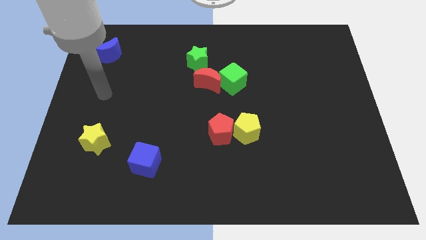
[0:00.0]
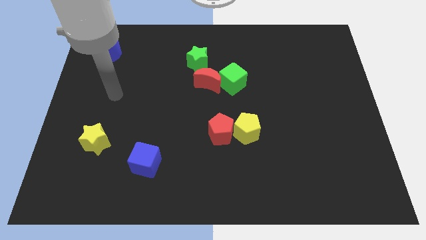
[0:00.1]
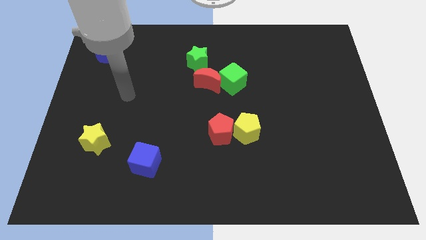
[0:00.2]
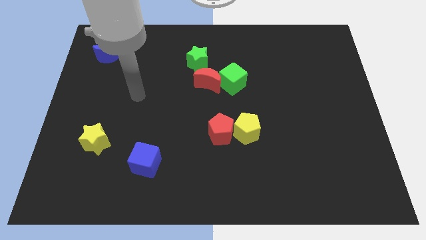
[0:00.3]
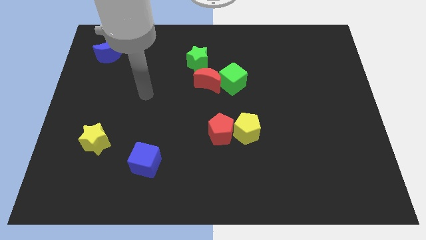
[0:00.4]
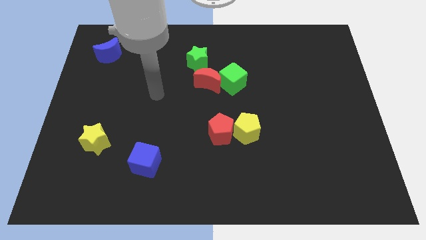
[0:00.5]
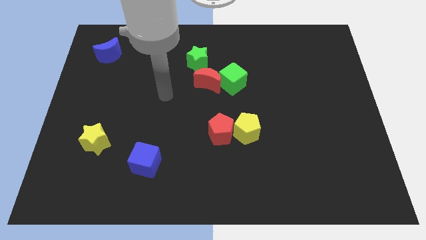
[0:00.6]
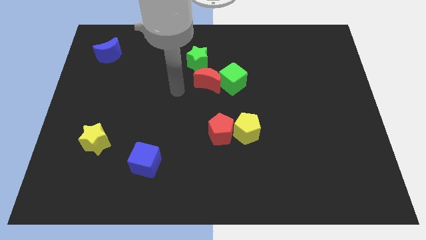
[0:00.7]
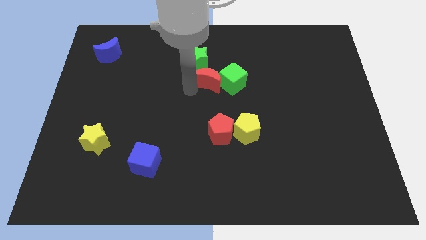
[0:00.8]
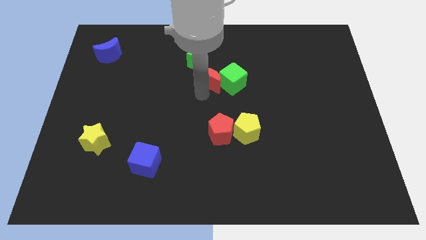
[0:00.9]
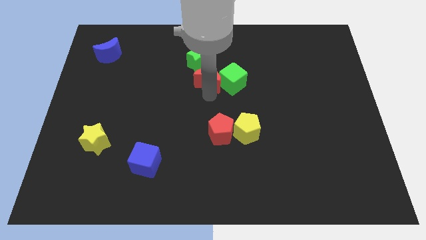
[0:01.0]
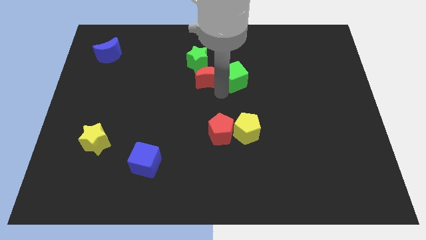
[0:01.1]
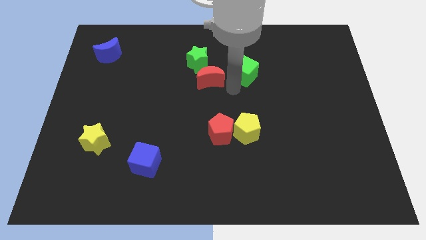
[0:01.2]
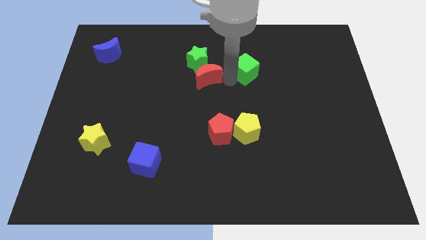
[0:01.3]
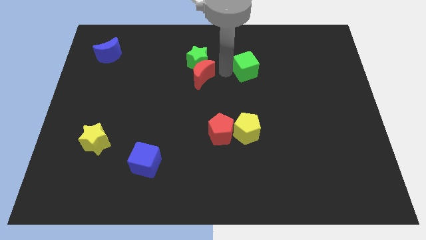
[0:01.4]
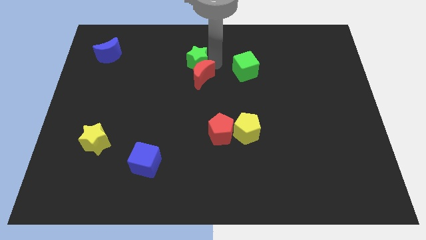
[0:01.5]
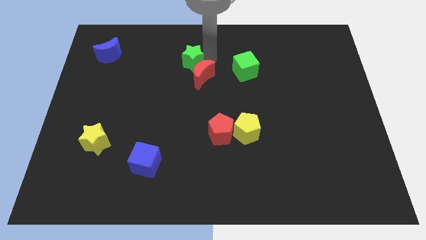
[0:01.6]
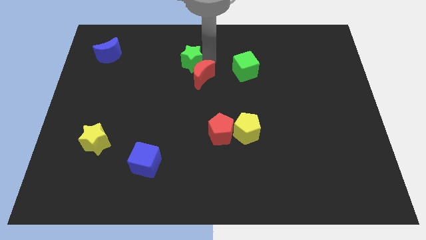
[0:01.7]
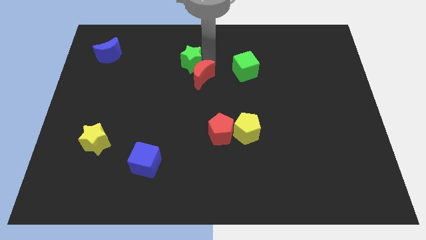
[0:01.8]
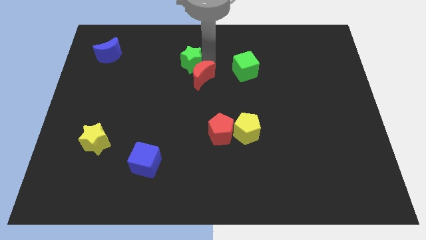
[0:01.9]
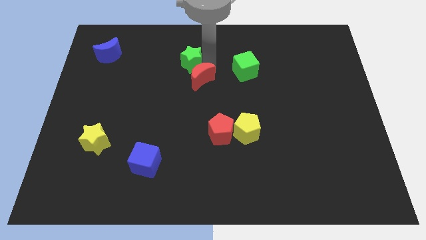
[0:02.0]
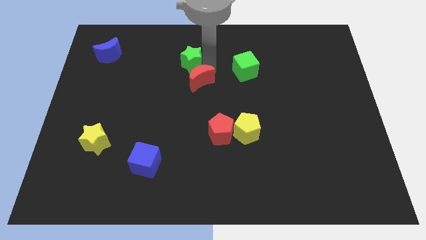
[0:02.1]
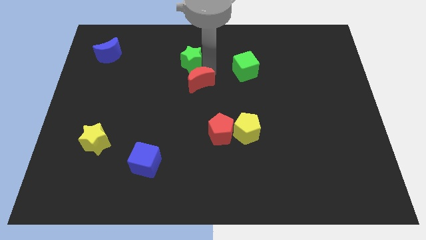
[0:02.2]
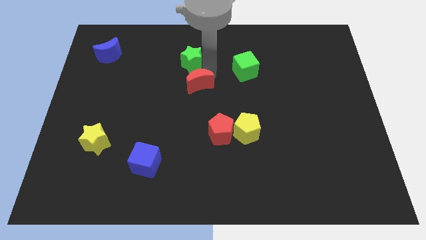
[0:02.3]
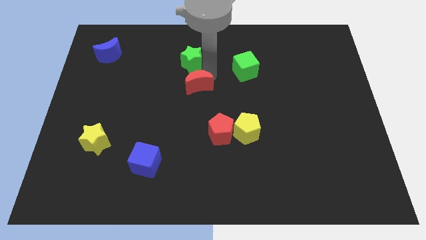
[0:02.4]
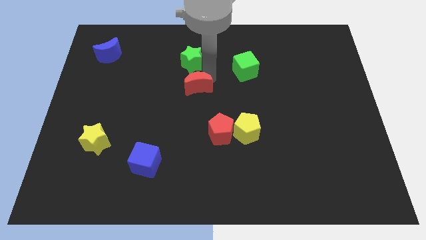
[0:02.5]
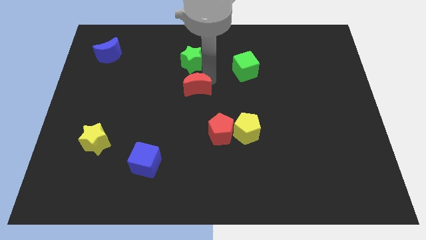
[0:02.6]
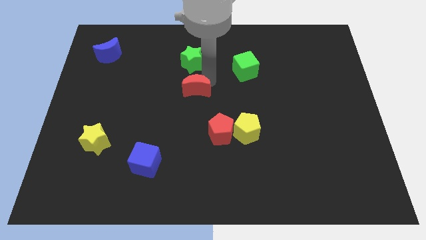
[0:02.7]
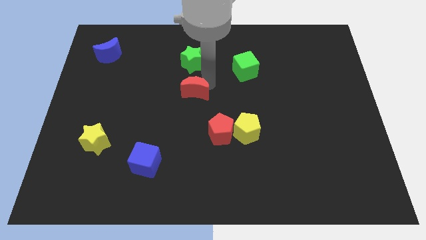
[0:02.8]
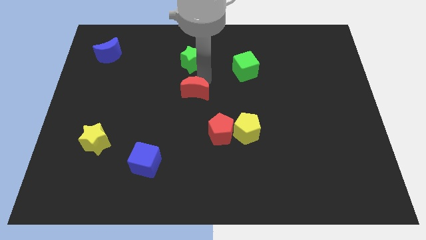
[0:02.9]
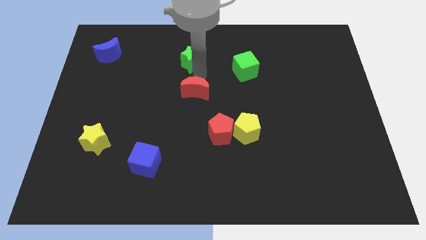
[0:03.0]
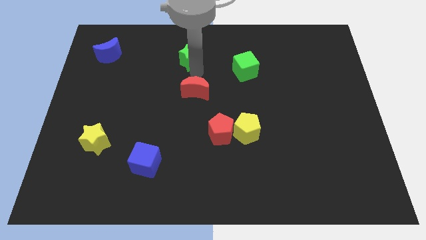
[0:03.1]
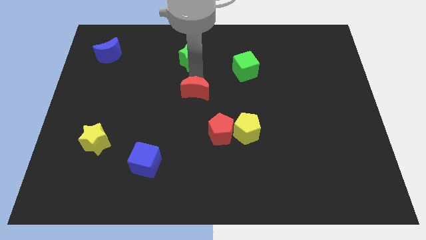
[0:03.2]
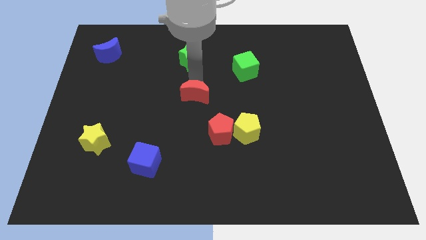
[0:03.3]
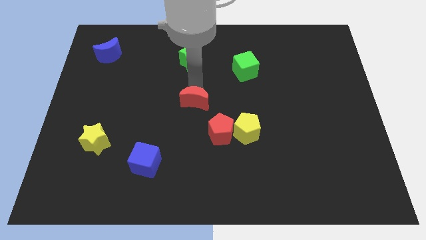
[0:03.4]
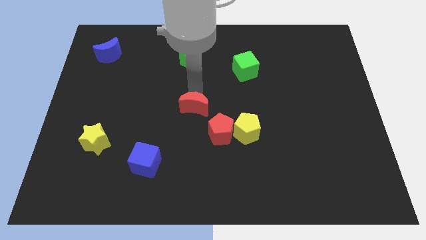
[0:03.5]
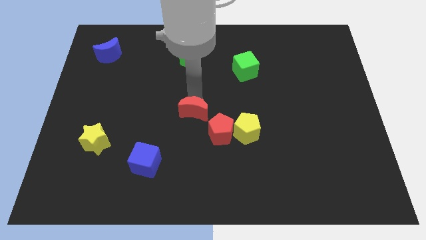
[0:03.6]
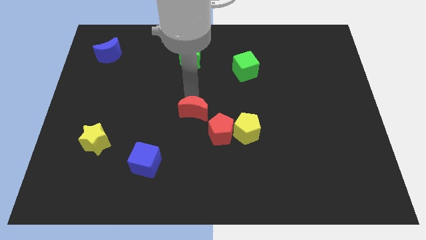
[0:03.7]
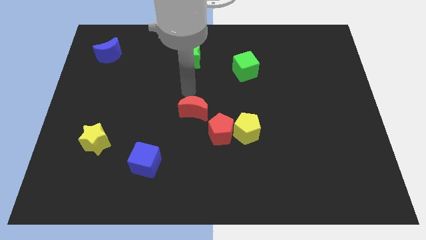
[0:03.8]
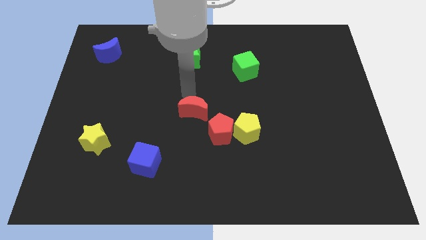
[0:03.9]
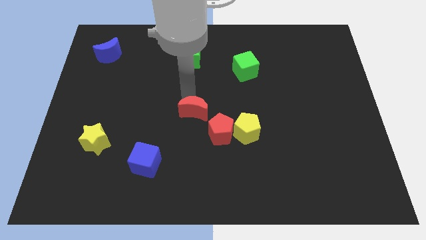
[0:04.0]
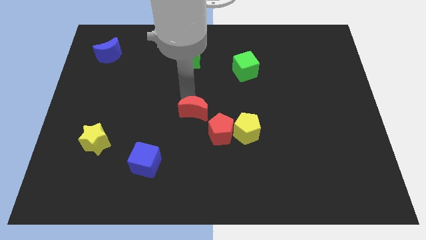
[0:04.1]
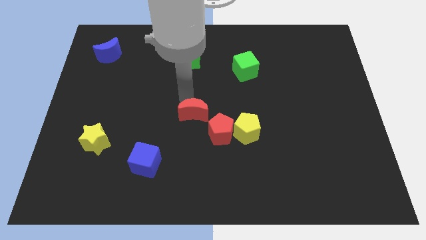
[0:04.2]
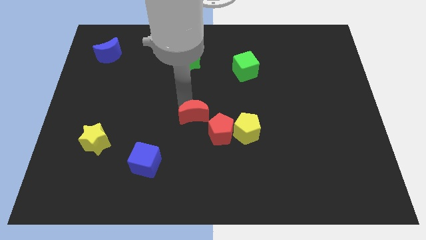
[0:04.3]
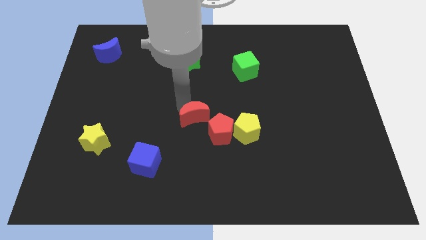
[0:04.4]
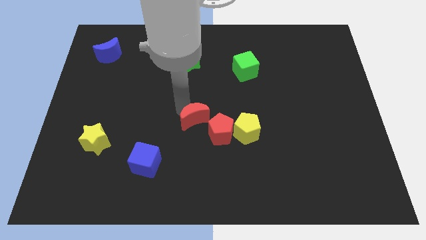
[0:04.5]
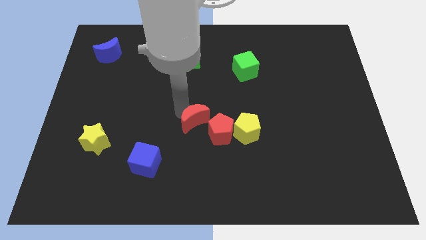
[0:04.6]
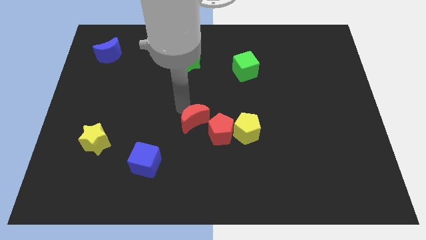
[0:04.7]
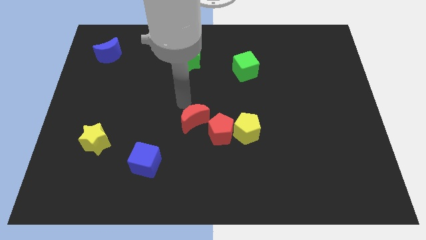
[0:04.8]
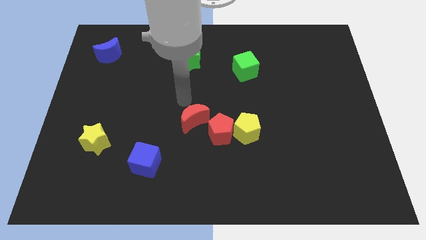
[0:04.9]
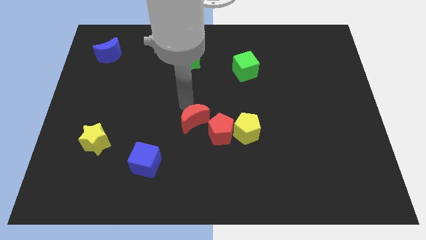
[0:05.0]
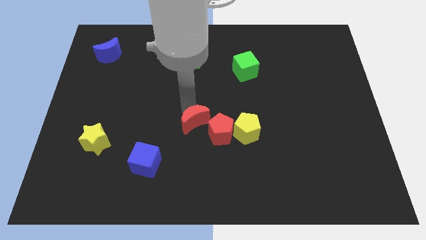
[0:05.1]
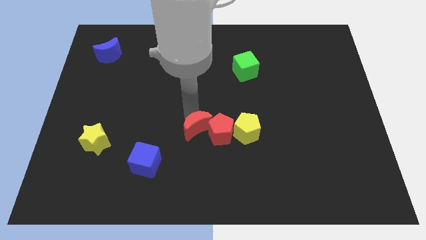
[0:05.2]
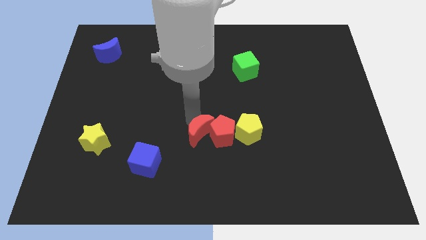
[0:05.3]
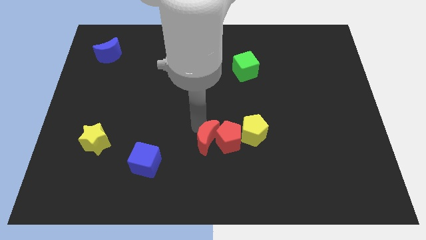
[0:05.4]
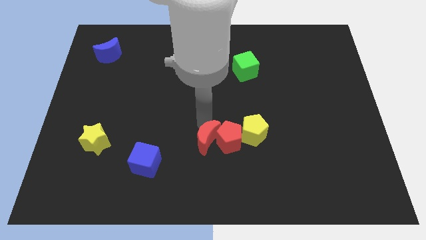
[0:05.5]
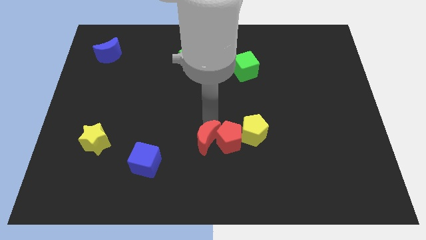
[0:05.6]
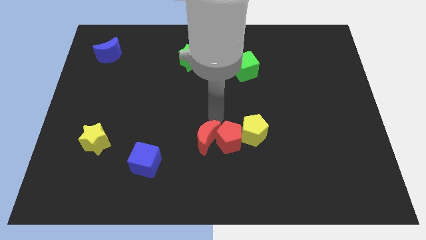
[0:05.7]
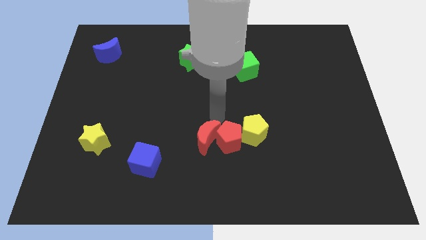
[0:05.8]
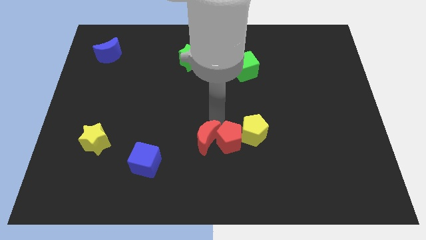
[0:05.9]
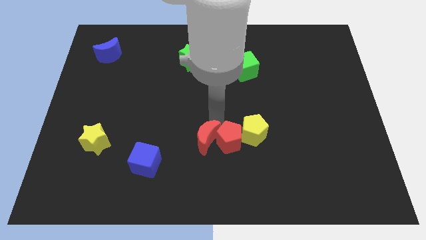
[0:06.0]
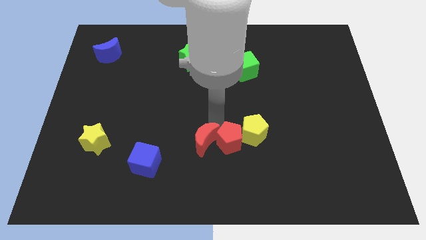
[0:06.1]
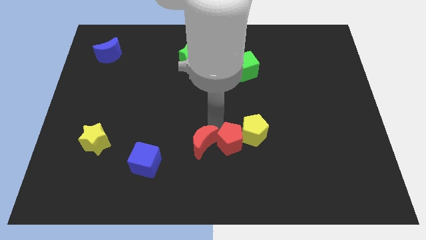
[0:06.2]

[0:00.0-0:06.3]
put the red moon just right of the blue cube

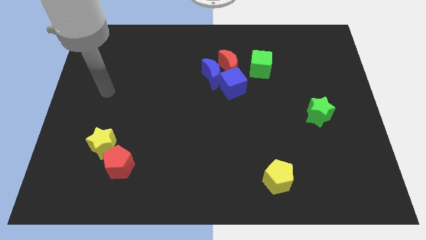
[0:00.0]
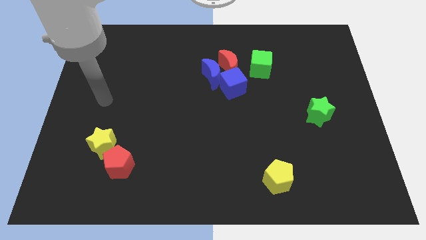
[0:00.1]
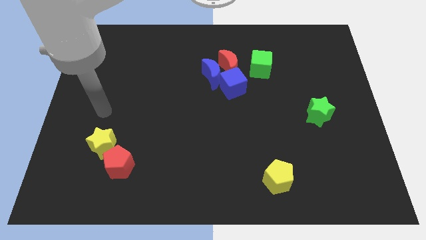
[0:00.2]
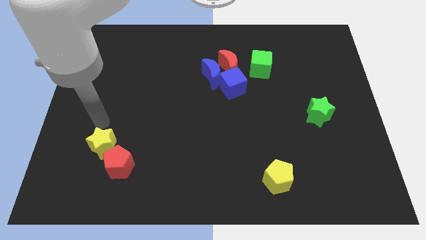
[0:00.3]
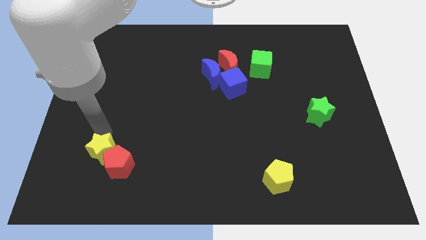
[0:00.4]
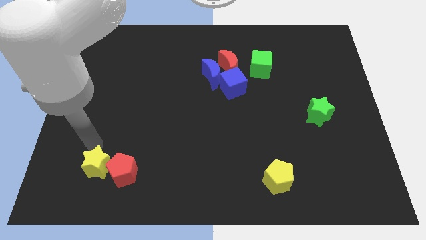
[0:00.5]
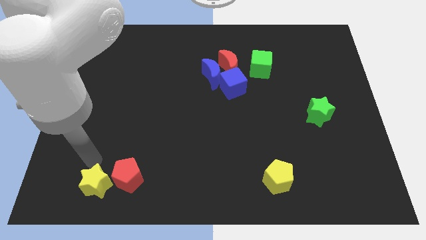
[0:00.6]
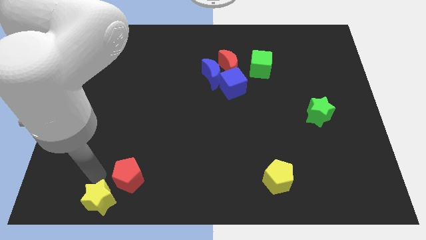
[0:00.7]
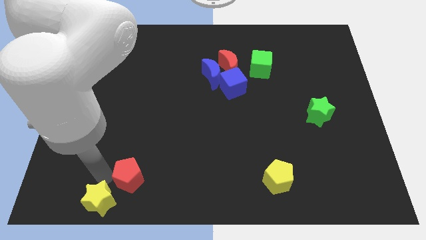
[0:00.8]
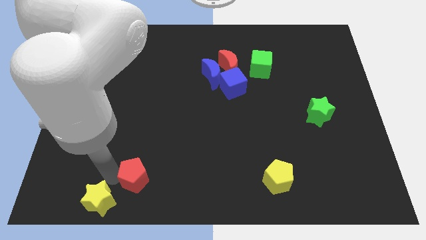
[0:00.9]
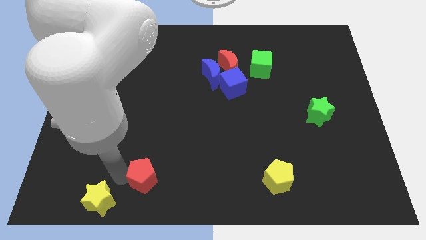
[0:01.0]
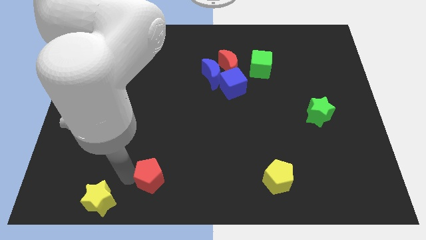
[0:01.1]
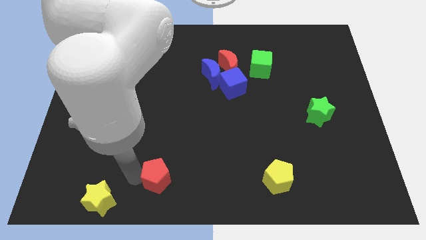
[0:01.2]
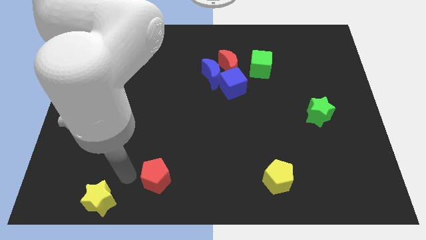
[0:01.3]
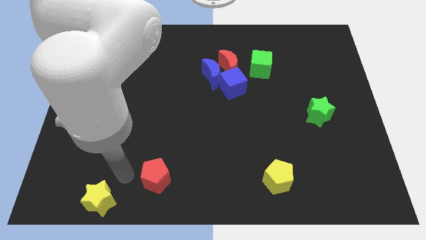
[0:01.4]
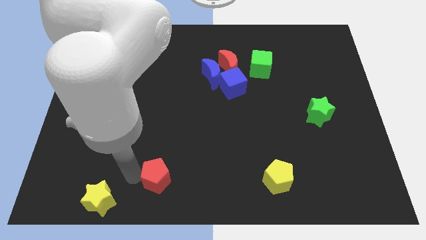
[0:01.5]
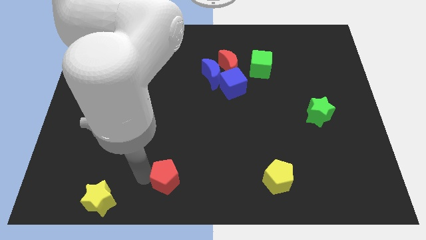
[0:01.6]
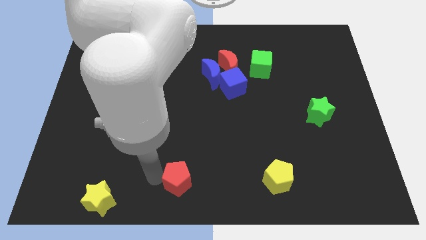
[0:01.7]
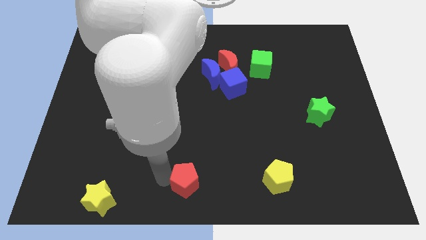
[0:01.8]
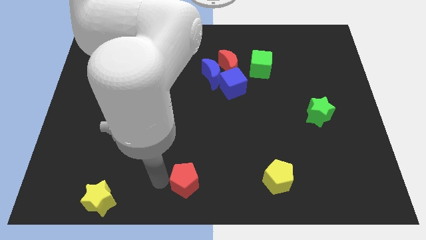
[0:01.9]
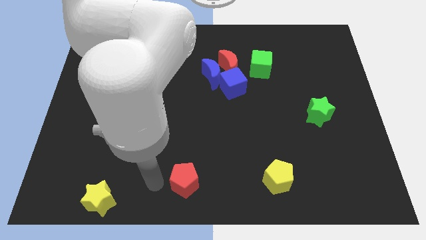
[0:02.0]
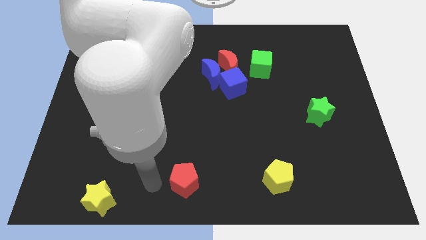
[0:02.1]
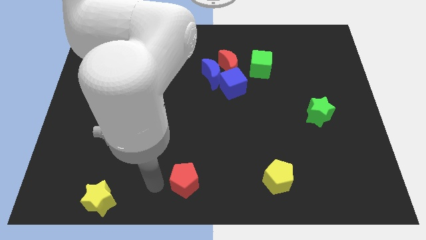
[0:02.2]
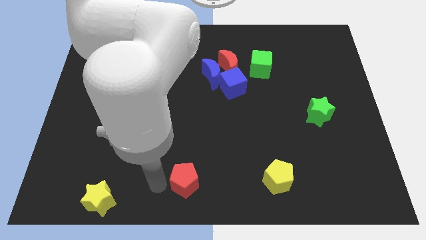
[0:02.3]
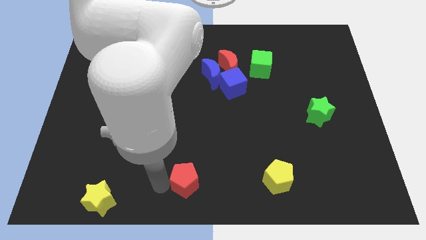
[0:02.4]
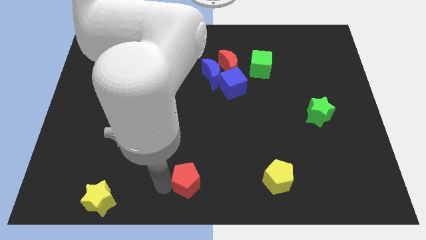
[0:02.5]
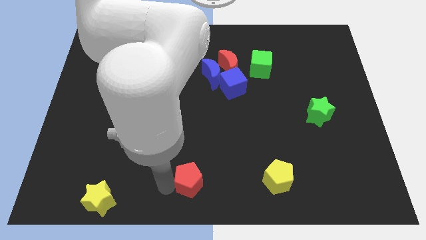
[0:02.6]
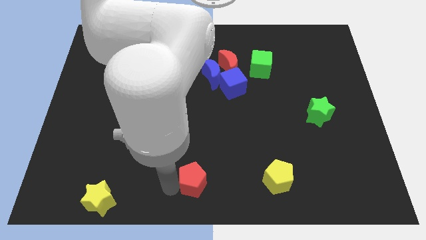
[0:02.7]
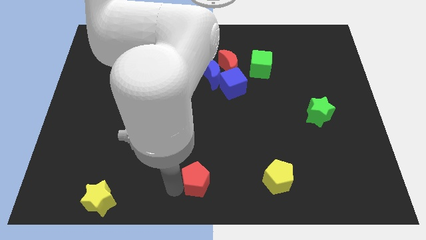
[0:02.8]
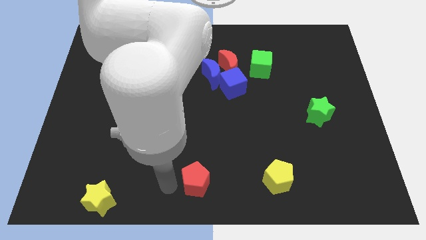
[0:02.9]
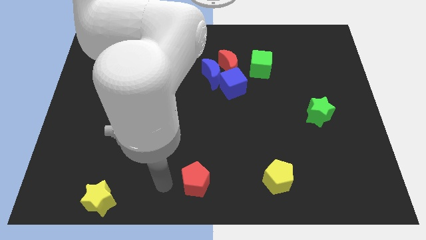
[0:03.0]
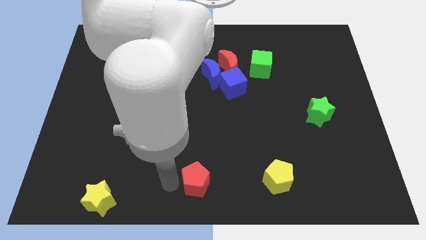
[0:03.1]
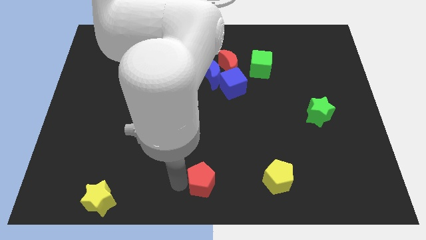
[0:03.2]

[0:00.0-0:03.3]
put the red pentagon just left of the yellow pentagon
